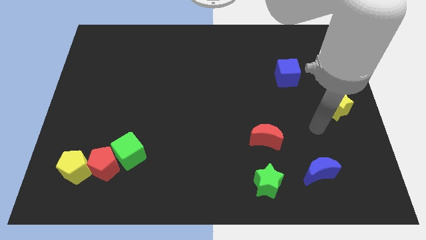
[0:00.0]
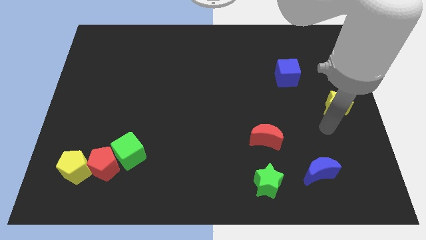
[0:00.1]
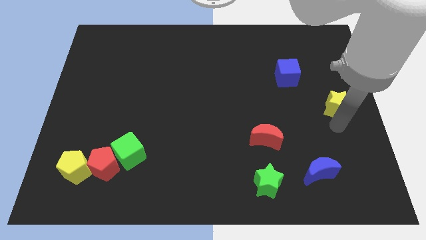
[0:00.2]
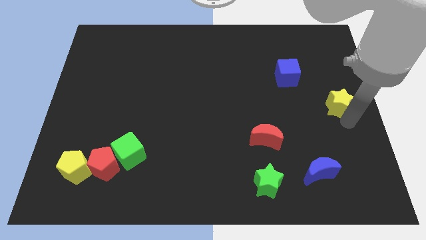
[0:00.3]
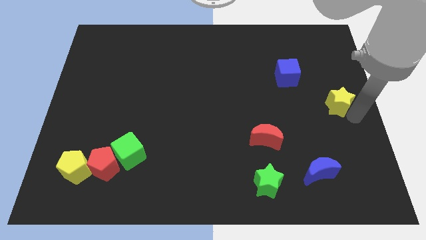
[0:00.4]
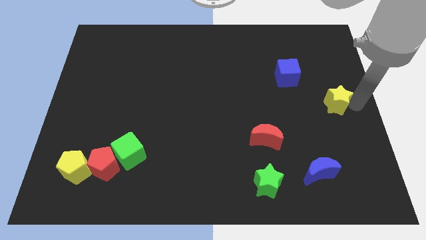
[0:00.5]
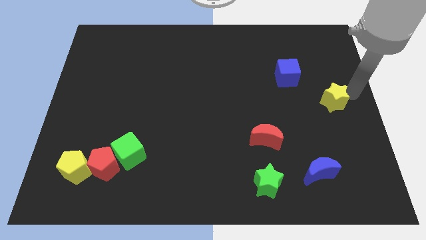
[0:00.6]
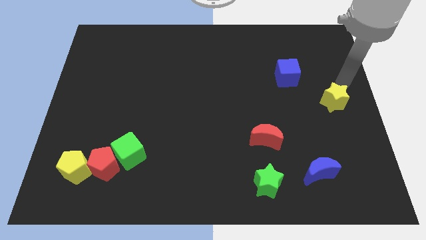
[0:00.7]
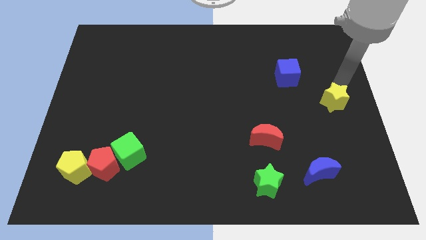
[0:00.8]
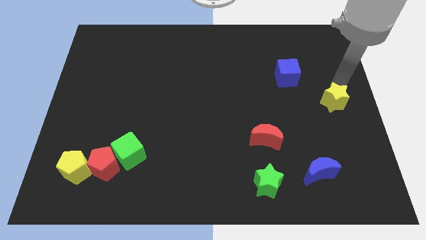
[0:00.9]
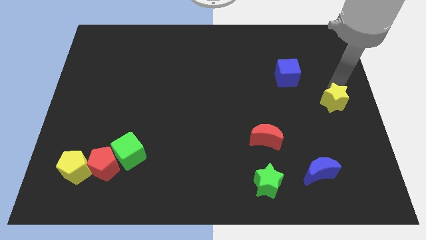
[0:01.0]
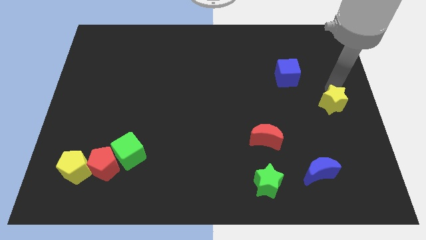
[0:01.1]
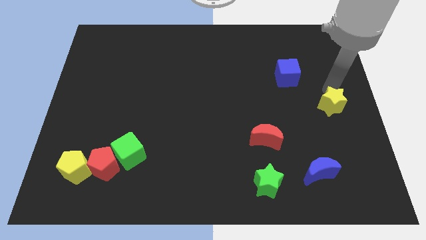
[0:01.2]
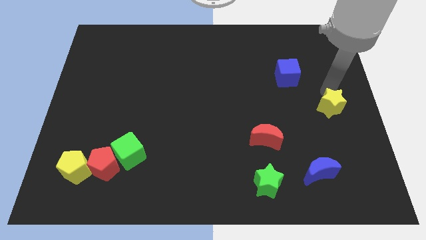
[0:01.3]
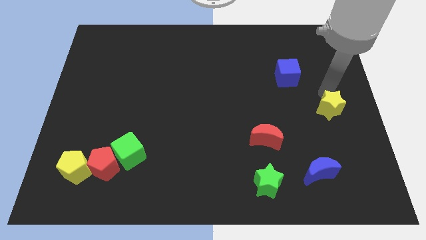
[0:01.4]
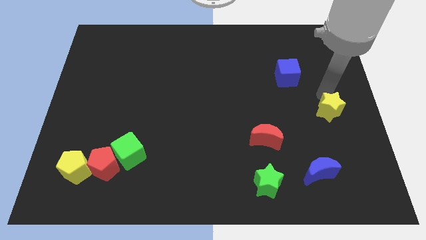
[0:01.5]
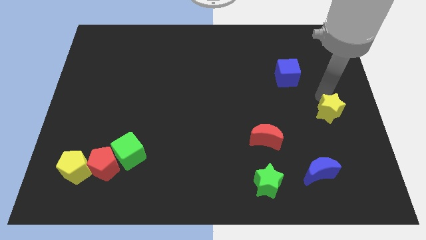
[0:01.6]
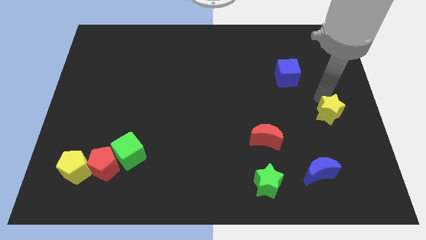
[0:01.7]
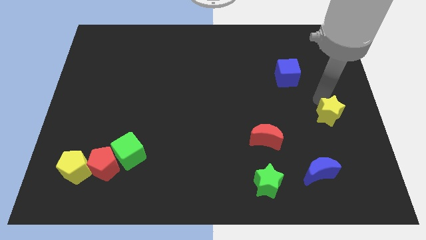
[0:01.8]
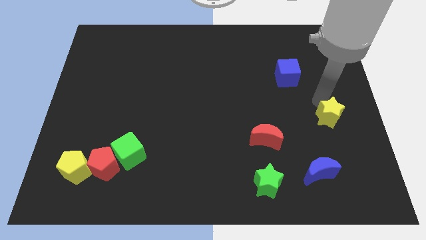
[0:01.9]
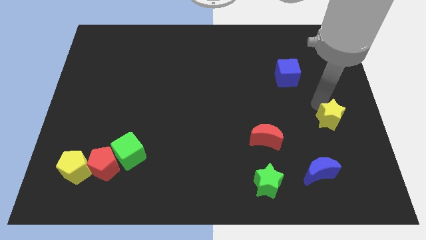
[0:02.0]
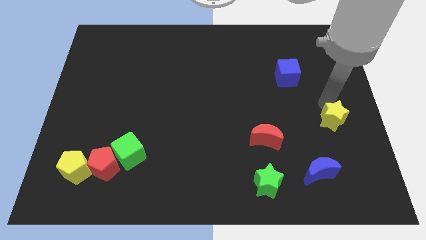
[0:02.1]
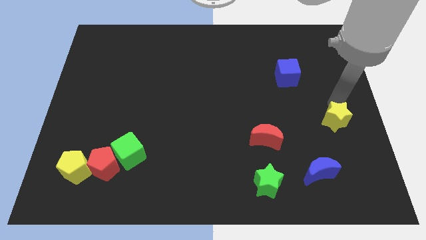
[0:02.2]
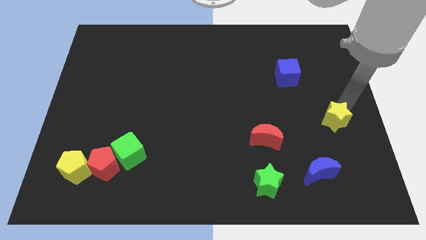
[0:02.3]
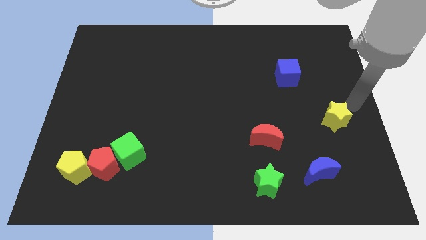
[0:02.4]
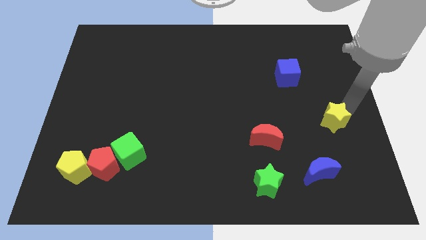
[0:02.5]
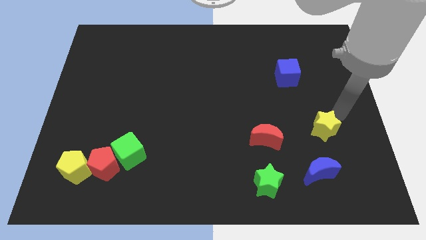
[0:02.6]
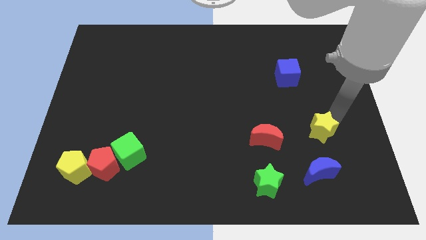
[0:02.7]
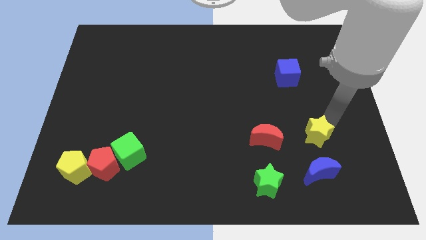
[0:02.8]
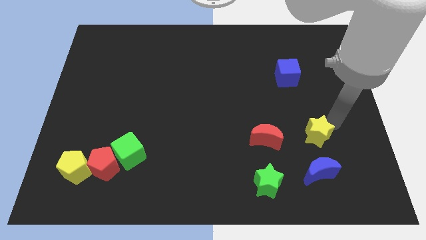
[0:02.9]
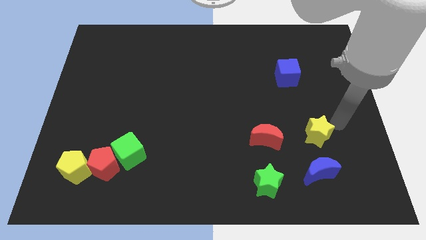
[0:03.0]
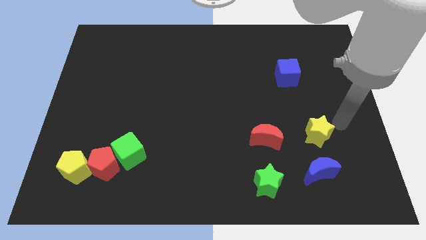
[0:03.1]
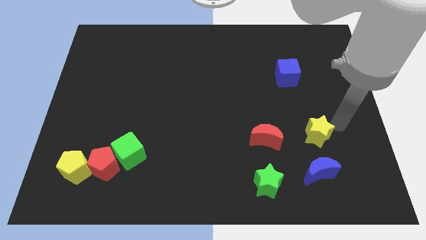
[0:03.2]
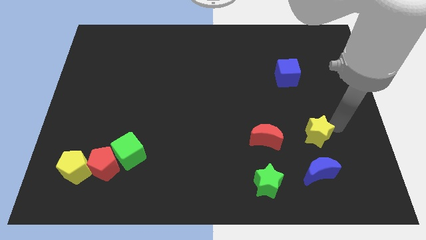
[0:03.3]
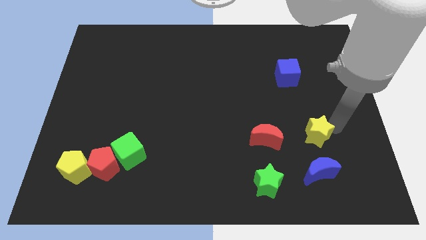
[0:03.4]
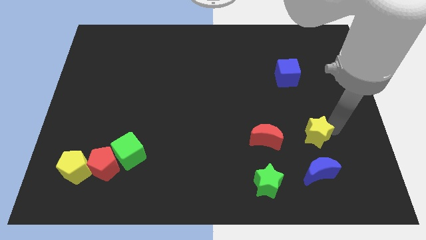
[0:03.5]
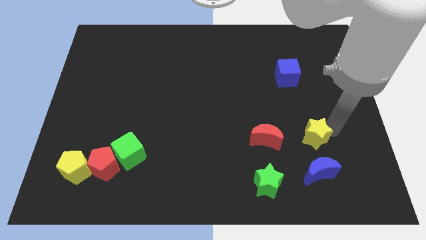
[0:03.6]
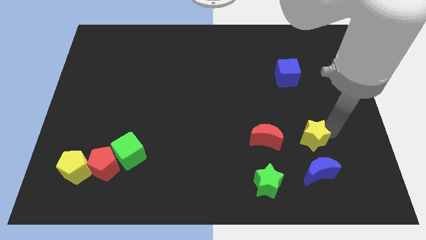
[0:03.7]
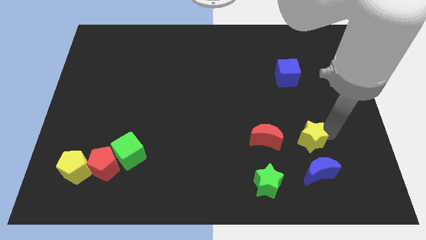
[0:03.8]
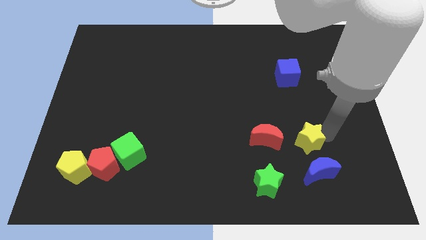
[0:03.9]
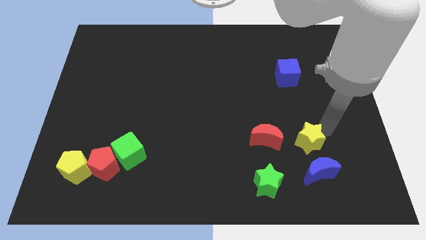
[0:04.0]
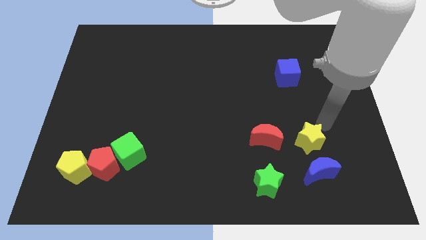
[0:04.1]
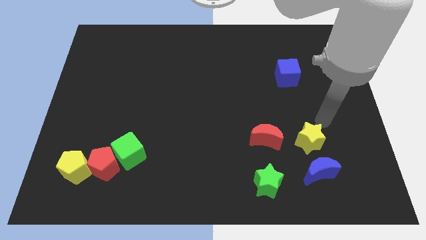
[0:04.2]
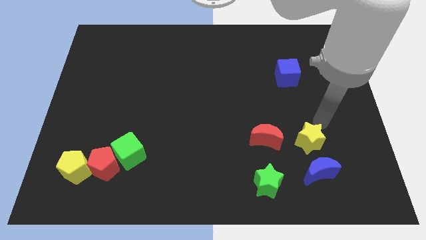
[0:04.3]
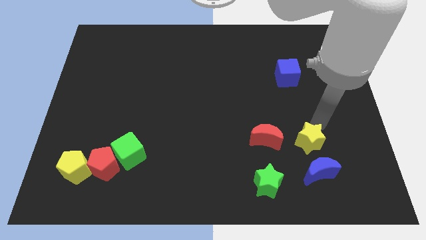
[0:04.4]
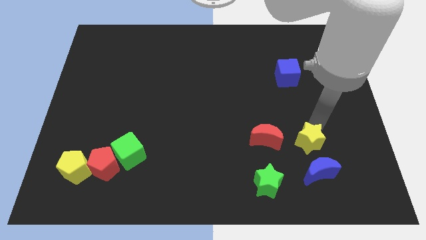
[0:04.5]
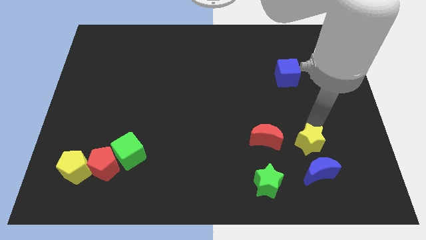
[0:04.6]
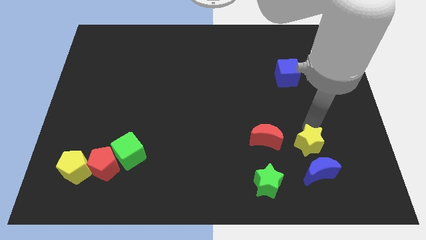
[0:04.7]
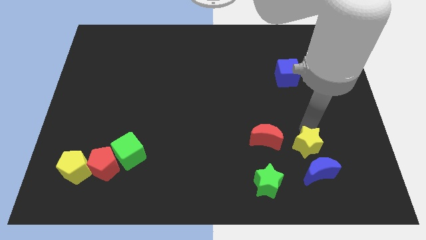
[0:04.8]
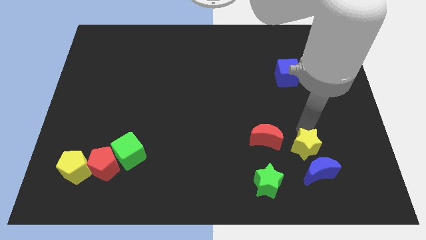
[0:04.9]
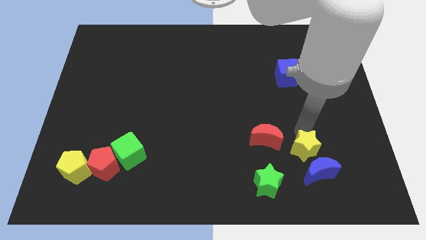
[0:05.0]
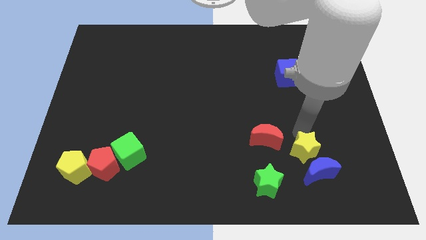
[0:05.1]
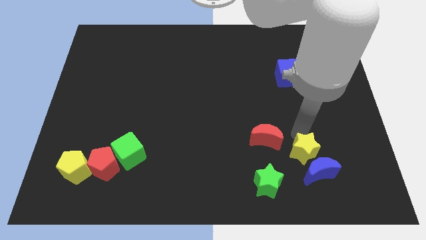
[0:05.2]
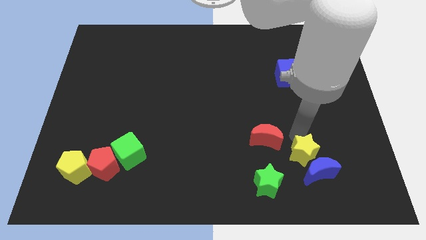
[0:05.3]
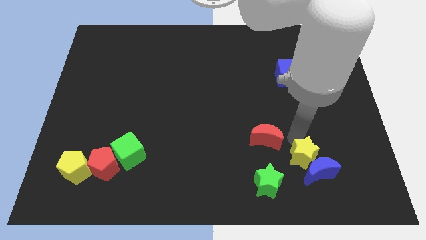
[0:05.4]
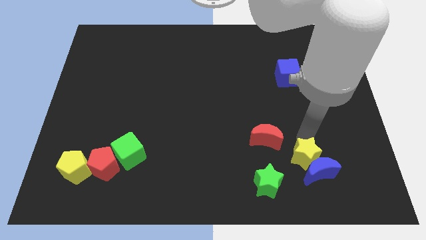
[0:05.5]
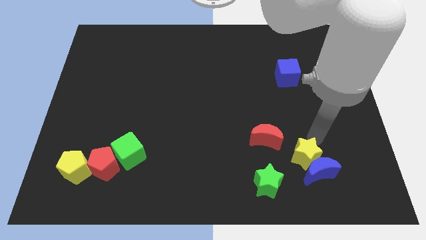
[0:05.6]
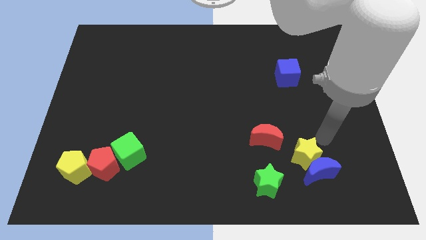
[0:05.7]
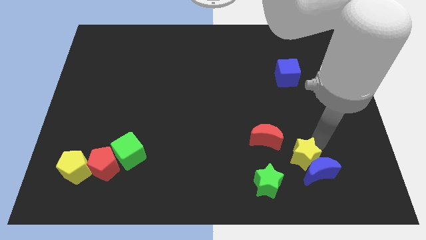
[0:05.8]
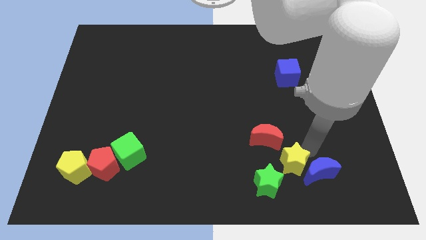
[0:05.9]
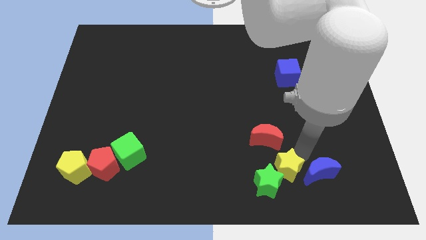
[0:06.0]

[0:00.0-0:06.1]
slide the yellow star next to the green star

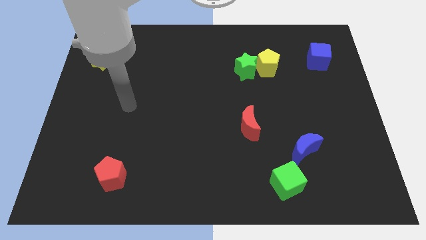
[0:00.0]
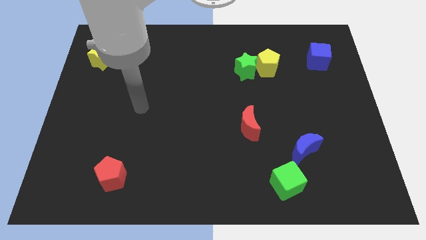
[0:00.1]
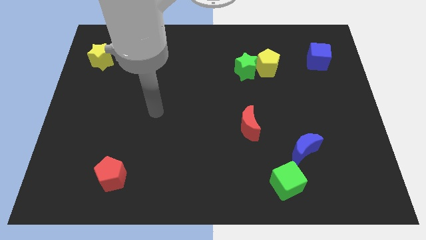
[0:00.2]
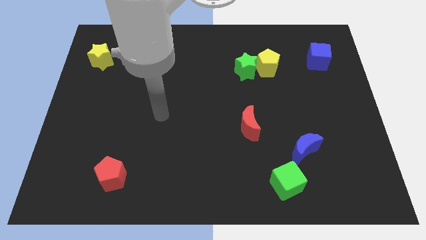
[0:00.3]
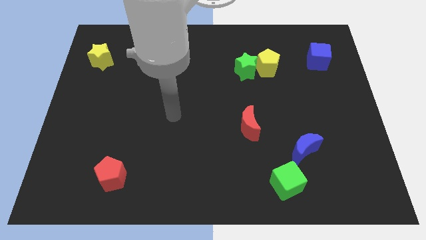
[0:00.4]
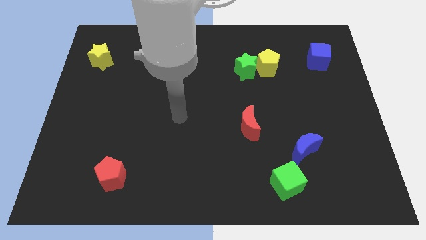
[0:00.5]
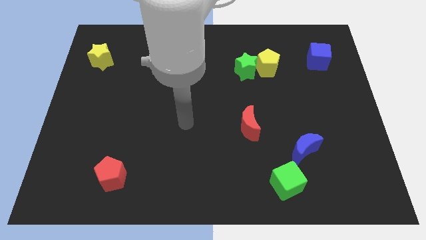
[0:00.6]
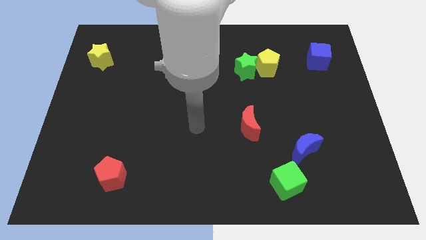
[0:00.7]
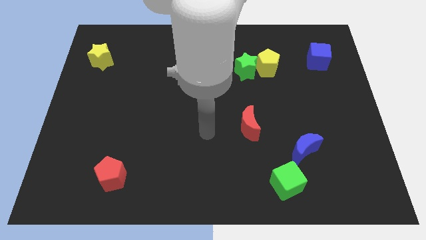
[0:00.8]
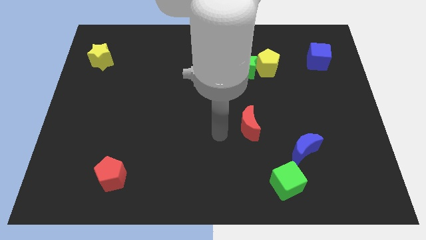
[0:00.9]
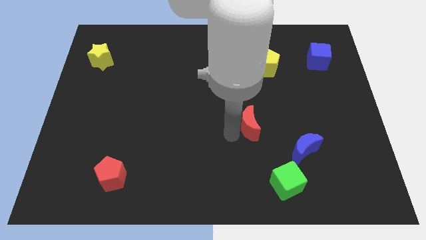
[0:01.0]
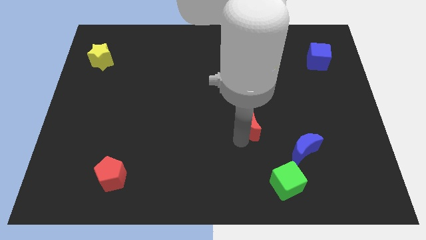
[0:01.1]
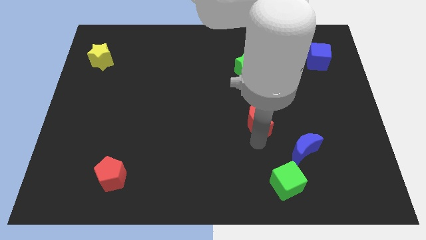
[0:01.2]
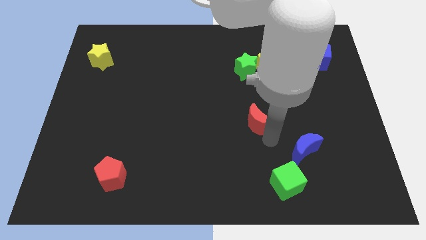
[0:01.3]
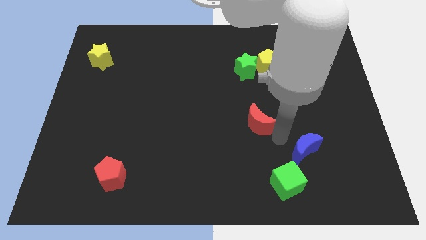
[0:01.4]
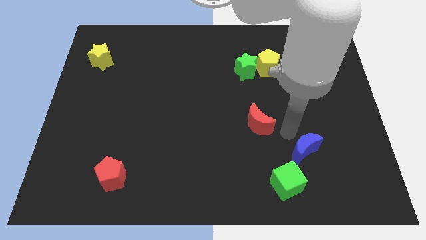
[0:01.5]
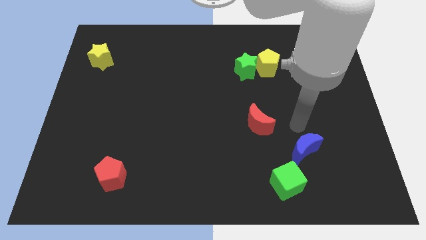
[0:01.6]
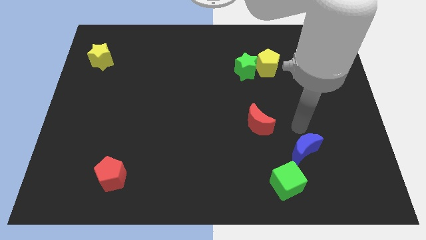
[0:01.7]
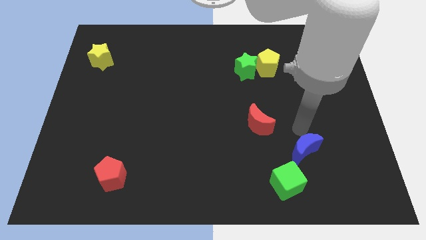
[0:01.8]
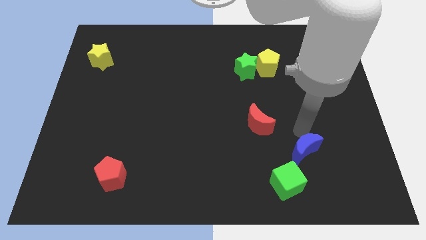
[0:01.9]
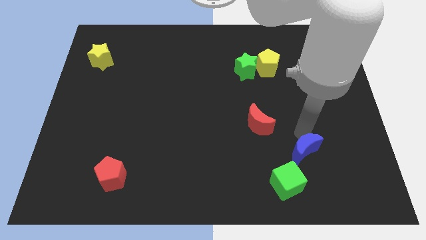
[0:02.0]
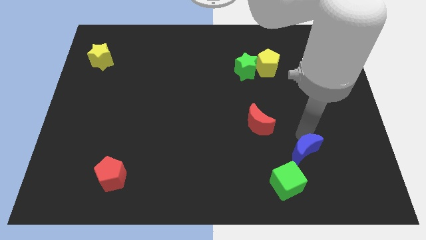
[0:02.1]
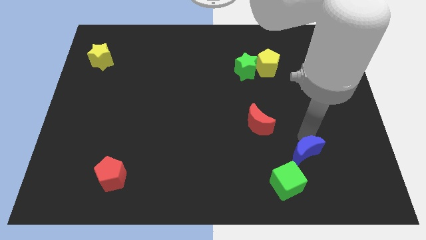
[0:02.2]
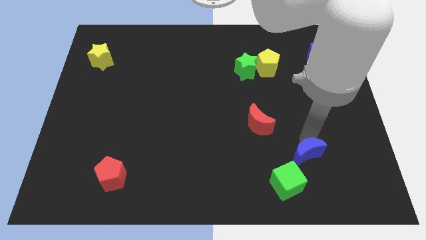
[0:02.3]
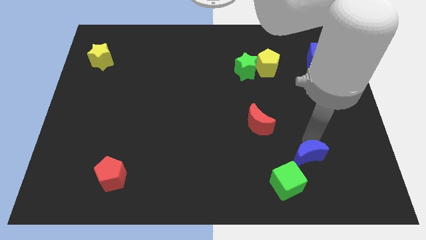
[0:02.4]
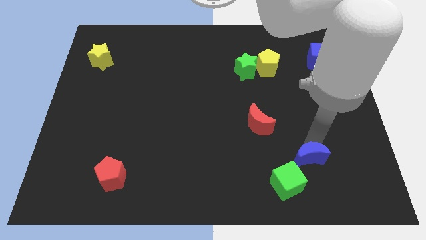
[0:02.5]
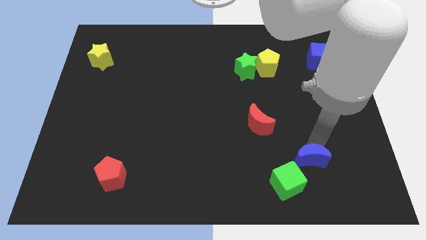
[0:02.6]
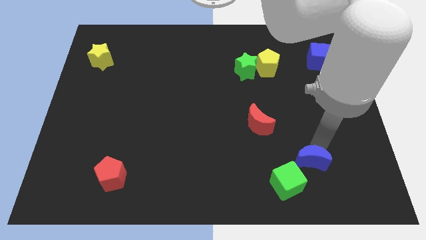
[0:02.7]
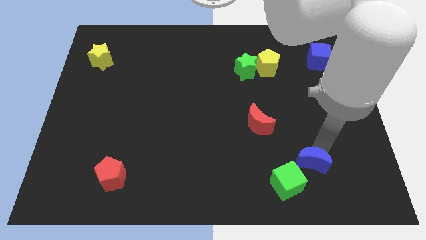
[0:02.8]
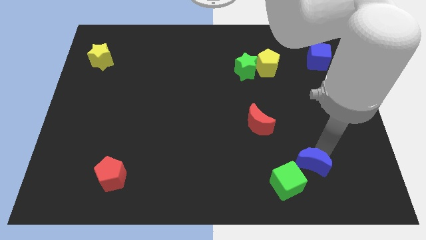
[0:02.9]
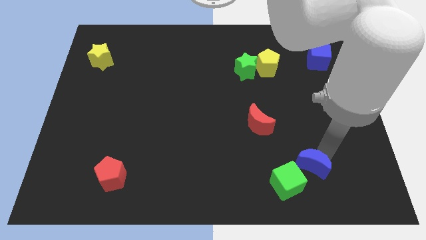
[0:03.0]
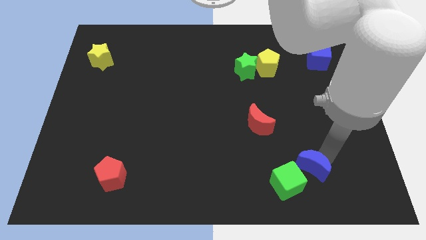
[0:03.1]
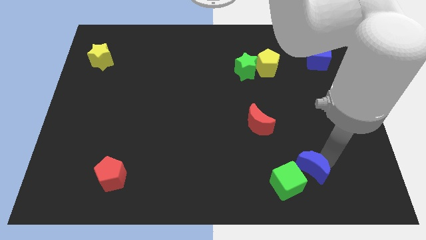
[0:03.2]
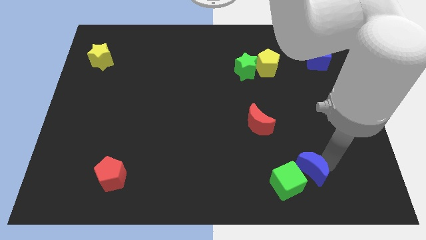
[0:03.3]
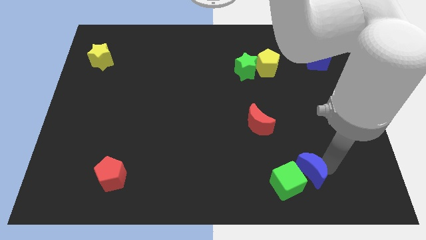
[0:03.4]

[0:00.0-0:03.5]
push the blue moon towards the green cube
